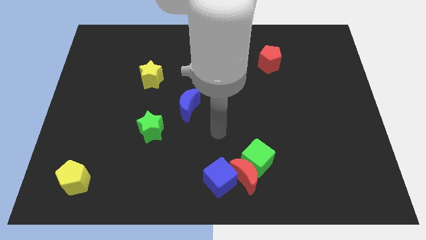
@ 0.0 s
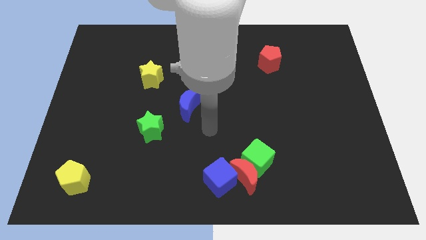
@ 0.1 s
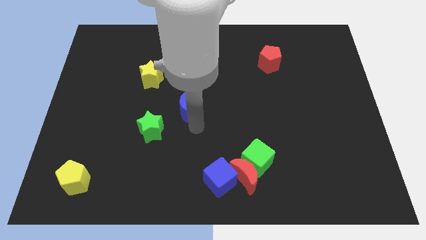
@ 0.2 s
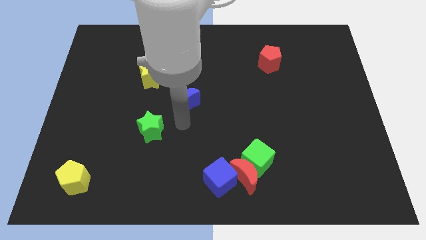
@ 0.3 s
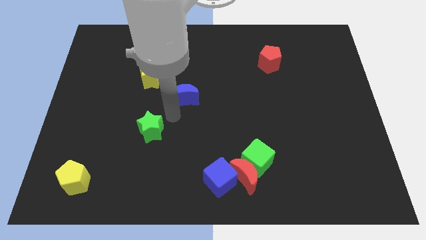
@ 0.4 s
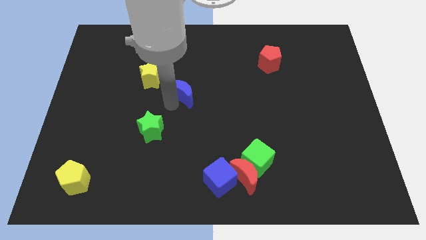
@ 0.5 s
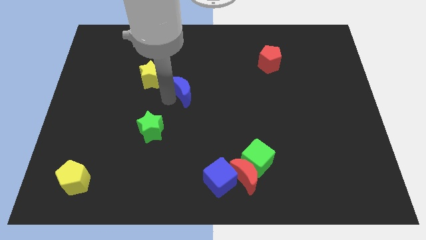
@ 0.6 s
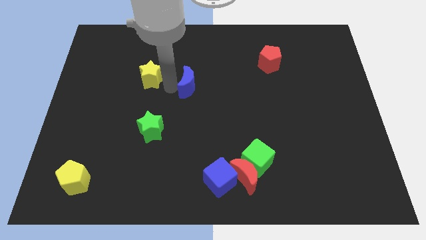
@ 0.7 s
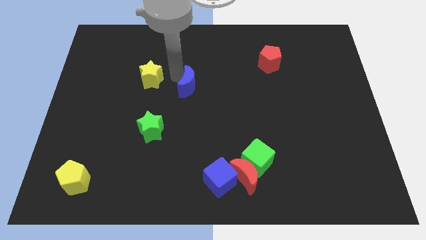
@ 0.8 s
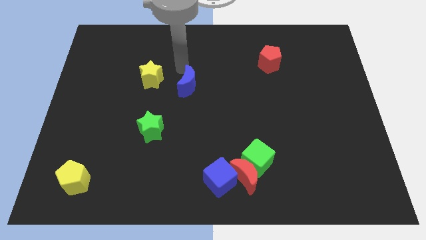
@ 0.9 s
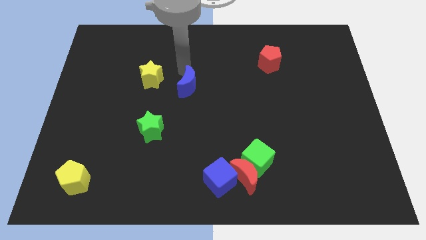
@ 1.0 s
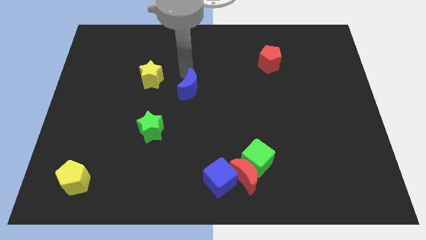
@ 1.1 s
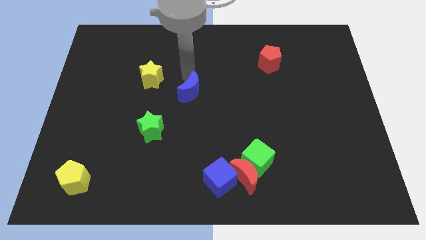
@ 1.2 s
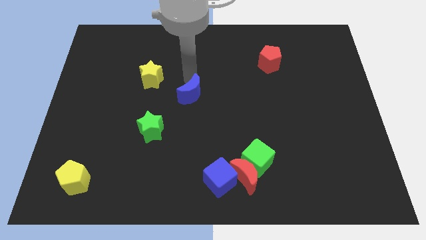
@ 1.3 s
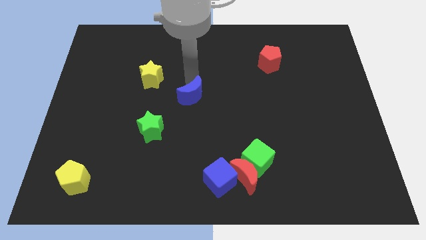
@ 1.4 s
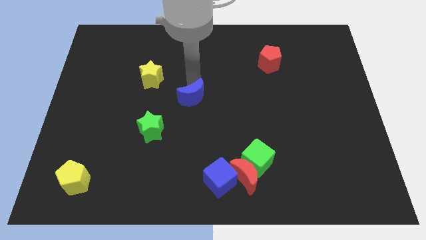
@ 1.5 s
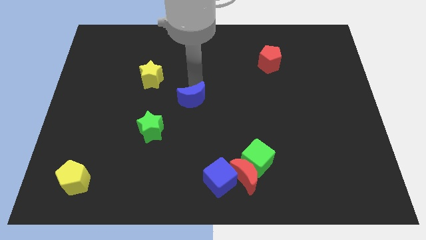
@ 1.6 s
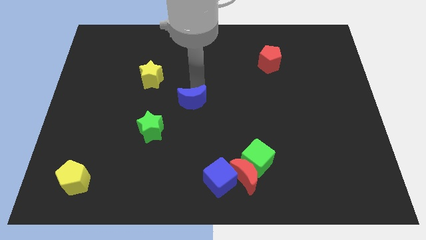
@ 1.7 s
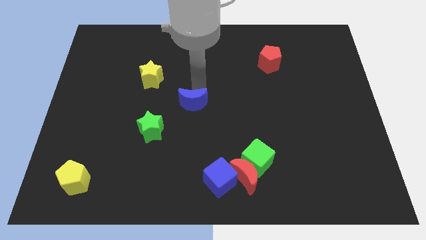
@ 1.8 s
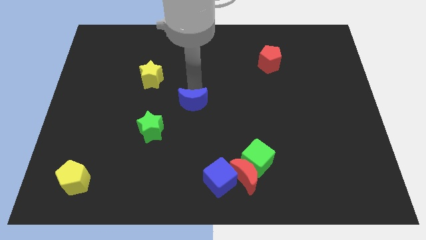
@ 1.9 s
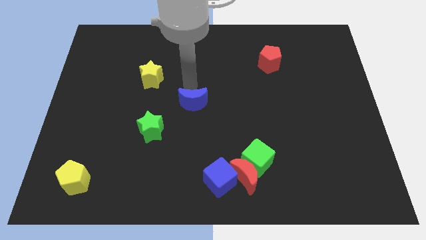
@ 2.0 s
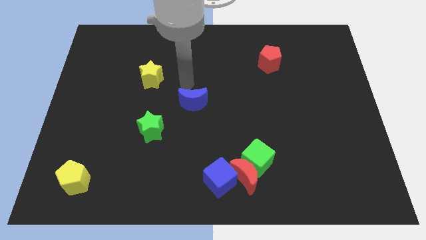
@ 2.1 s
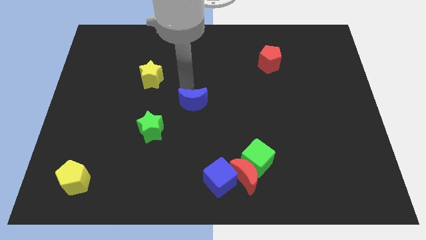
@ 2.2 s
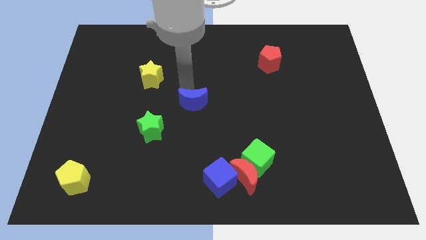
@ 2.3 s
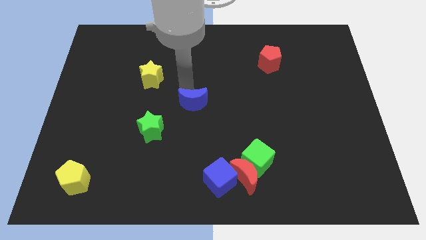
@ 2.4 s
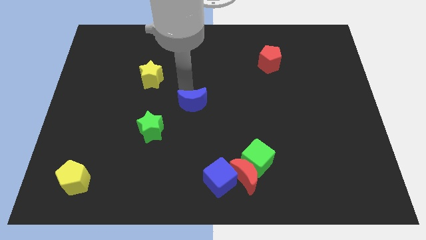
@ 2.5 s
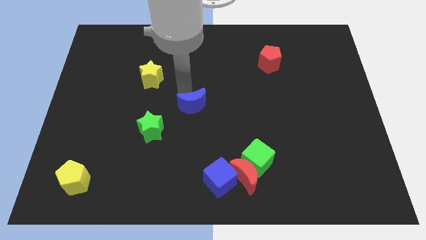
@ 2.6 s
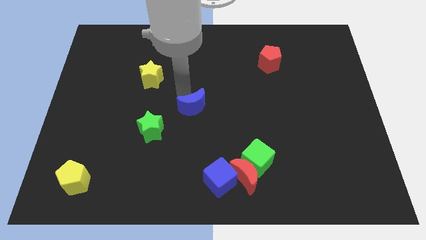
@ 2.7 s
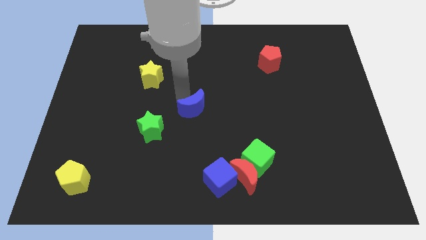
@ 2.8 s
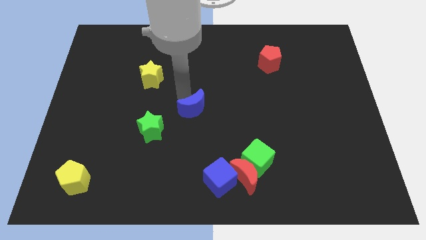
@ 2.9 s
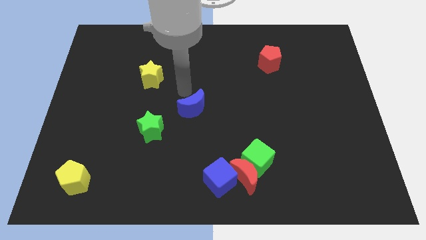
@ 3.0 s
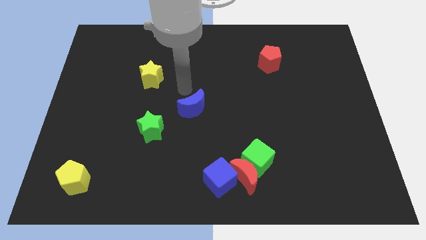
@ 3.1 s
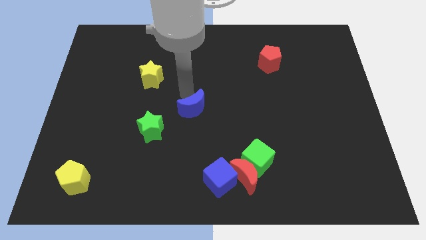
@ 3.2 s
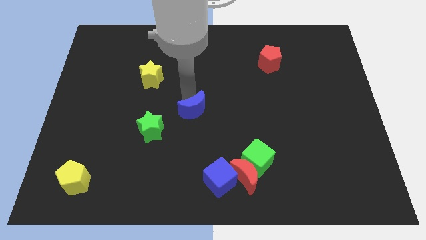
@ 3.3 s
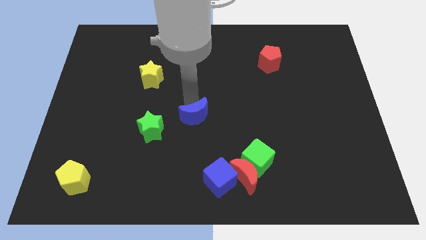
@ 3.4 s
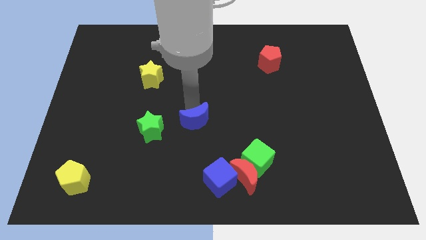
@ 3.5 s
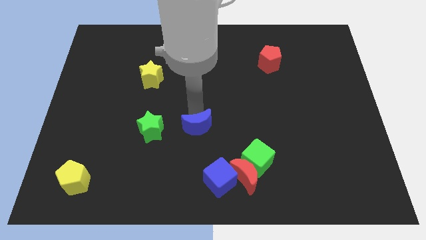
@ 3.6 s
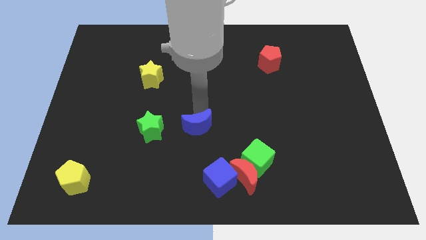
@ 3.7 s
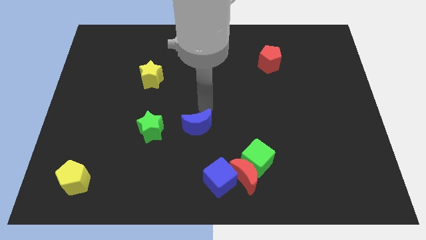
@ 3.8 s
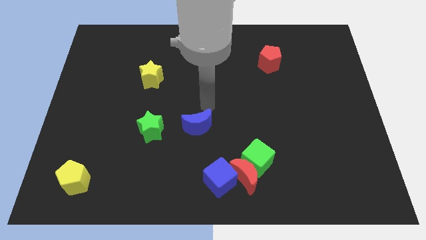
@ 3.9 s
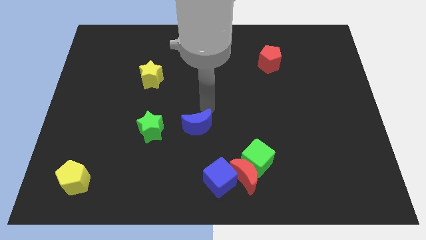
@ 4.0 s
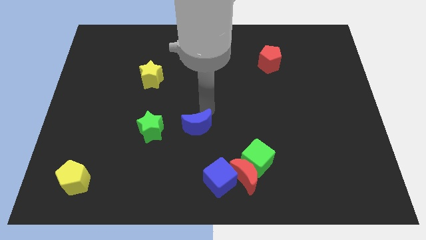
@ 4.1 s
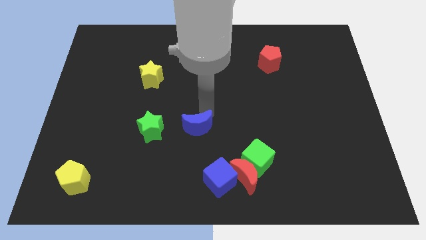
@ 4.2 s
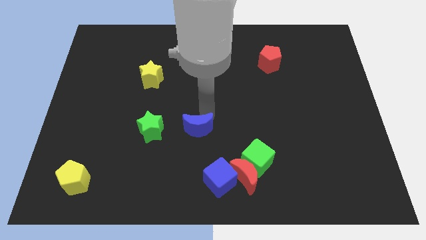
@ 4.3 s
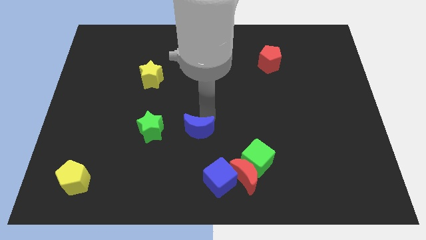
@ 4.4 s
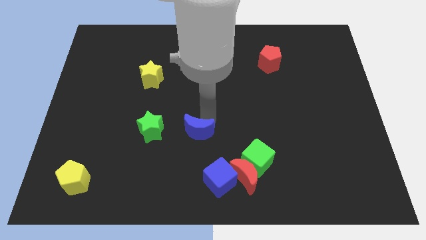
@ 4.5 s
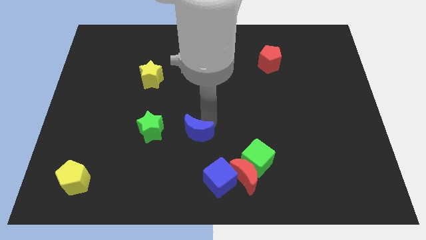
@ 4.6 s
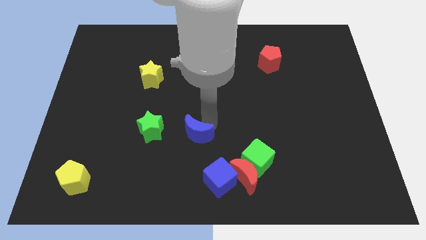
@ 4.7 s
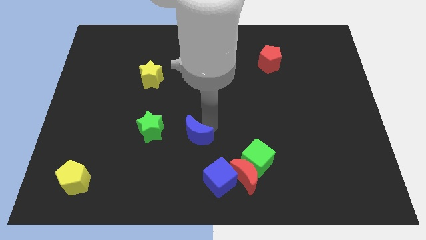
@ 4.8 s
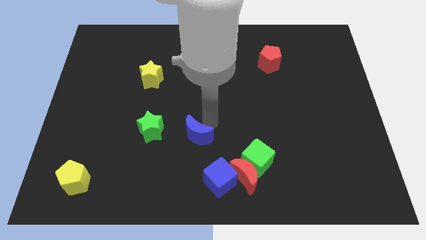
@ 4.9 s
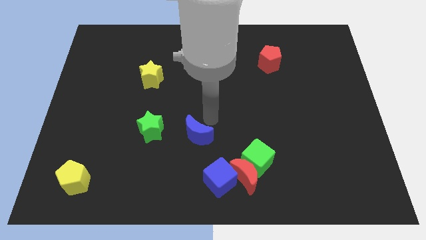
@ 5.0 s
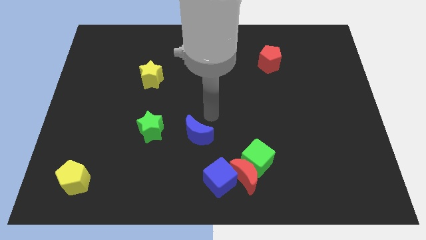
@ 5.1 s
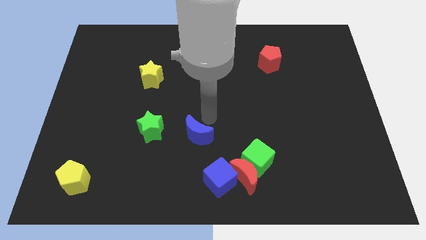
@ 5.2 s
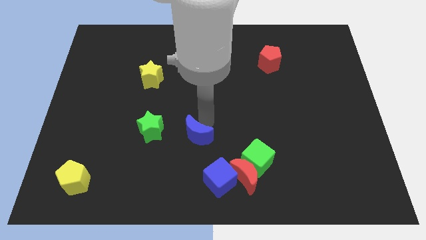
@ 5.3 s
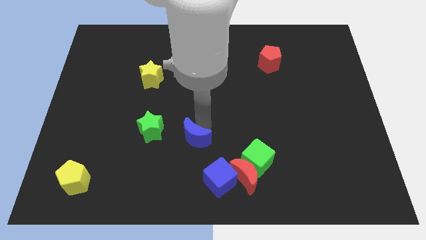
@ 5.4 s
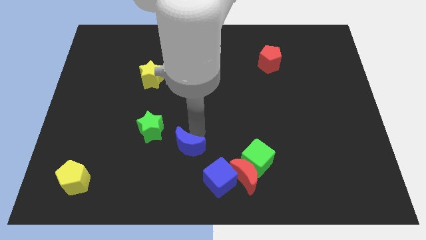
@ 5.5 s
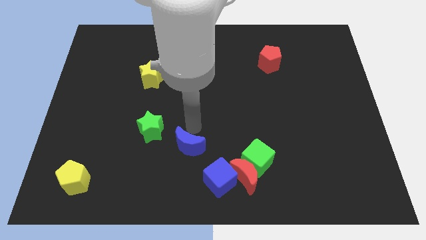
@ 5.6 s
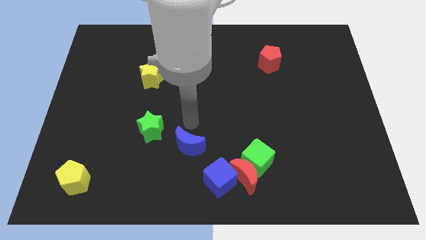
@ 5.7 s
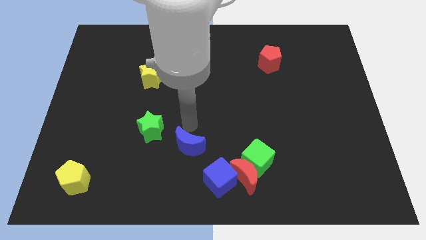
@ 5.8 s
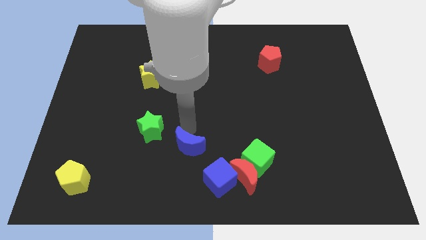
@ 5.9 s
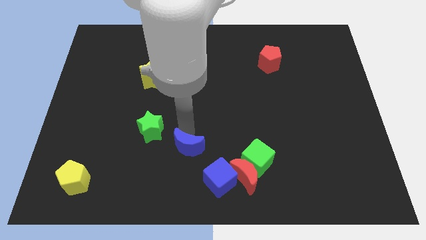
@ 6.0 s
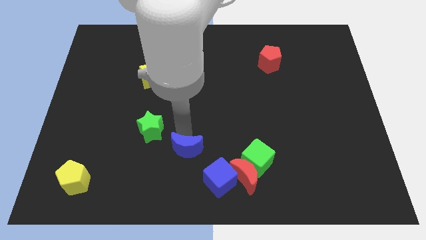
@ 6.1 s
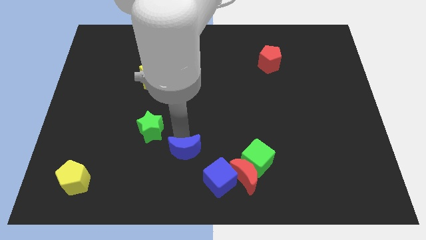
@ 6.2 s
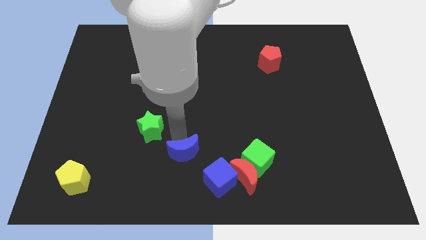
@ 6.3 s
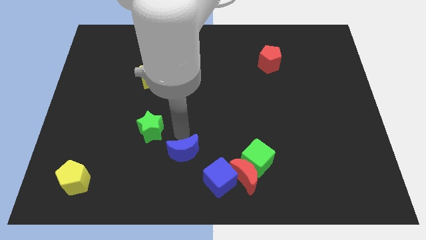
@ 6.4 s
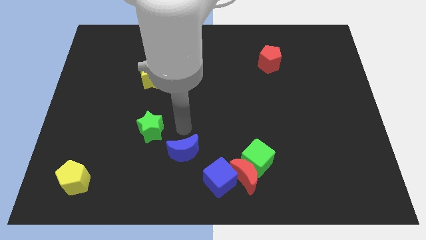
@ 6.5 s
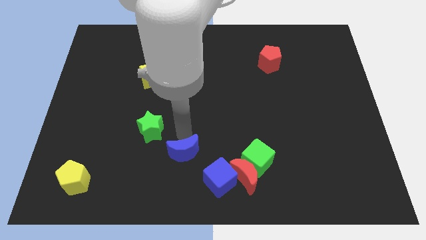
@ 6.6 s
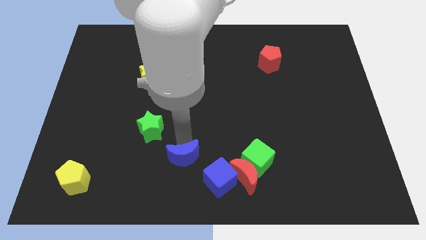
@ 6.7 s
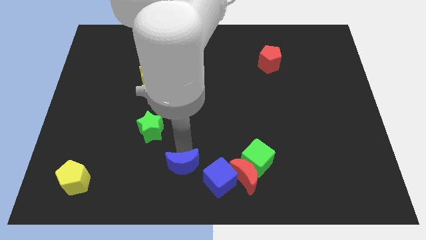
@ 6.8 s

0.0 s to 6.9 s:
move the blue moon to the bottom side

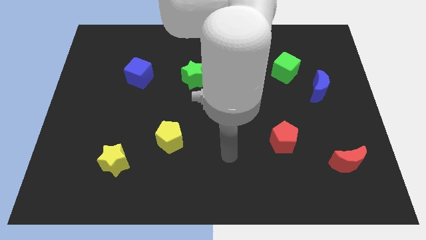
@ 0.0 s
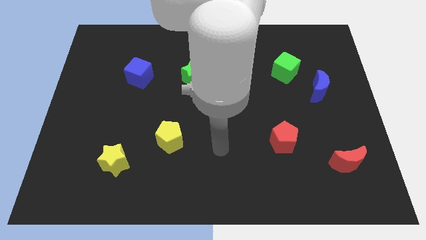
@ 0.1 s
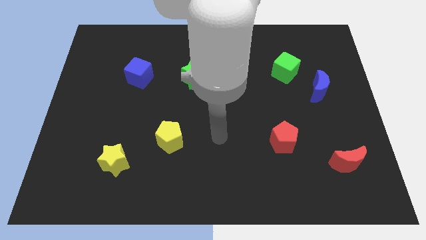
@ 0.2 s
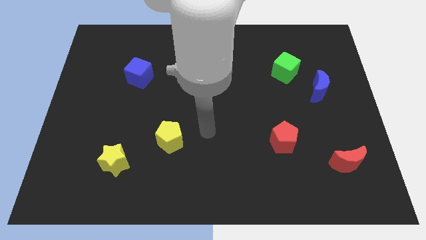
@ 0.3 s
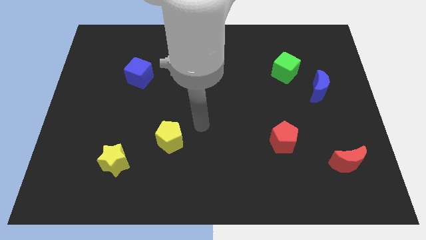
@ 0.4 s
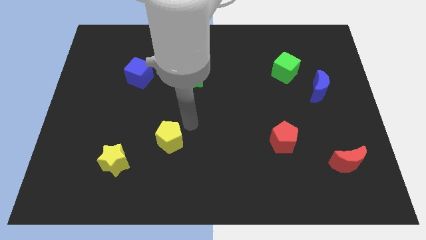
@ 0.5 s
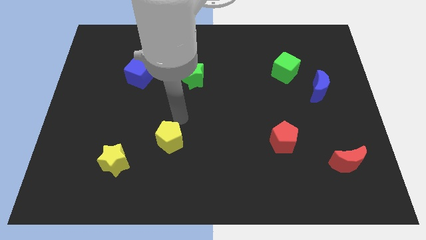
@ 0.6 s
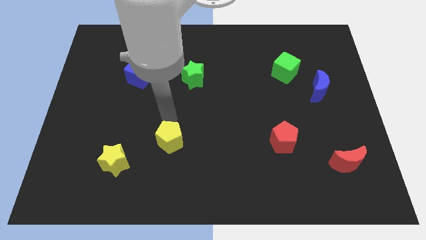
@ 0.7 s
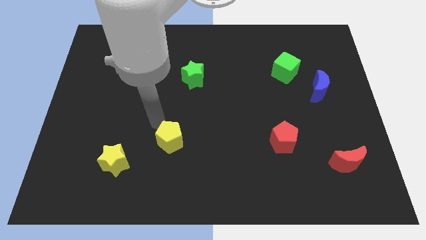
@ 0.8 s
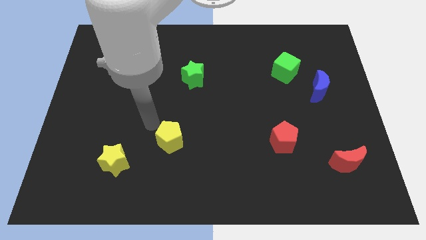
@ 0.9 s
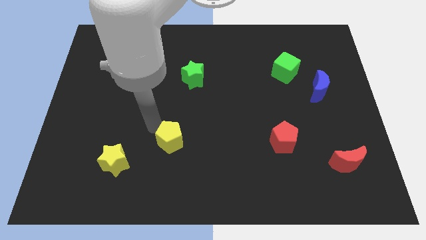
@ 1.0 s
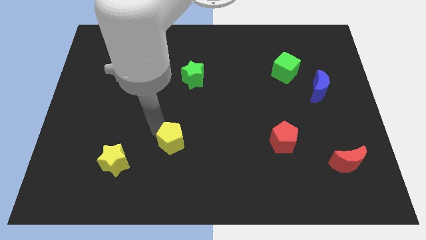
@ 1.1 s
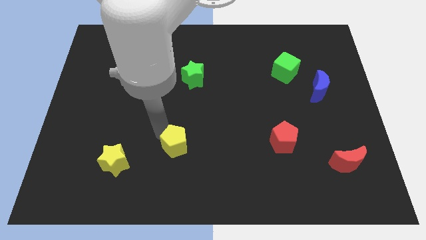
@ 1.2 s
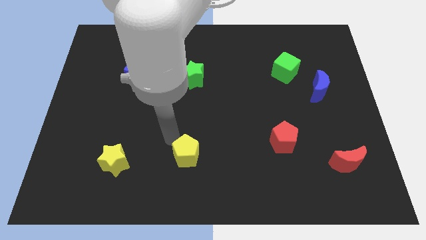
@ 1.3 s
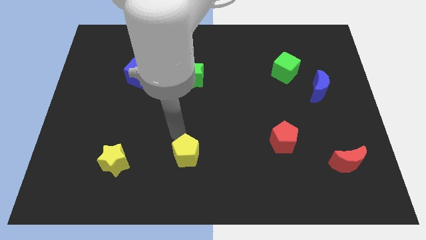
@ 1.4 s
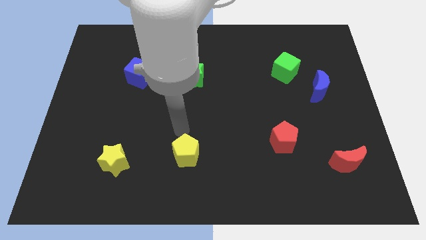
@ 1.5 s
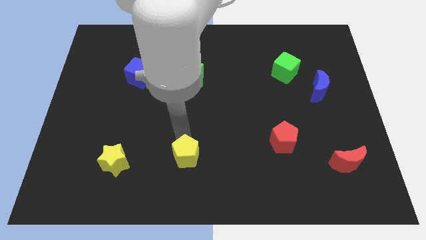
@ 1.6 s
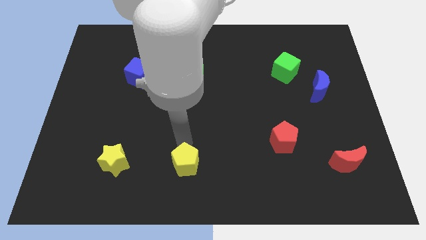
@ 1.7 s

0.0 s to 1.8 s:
move the yellow pentagon to the bottom
